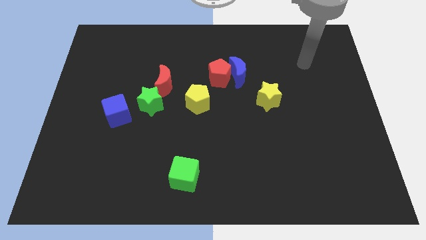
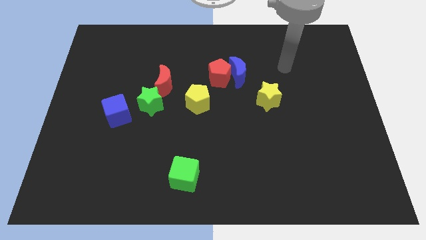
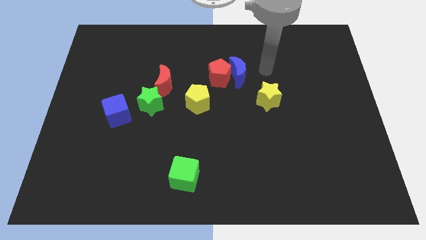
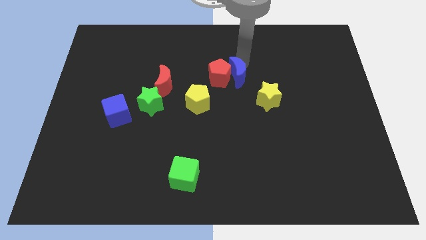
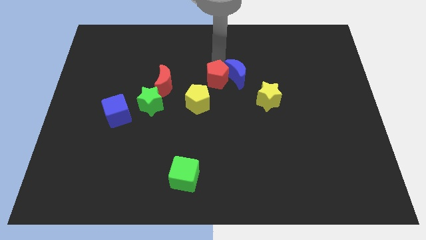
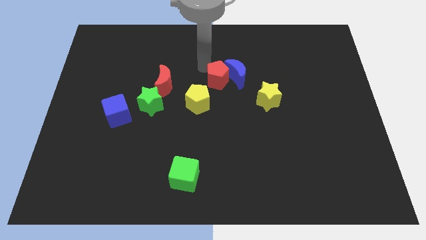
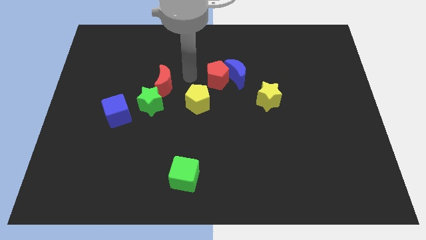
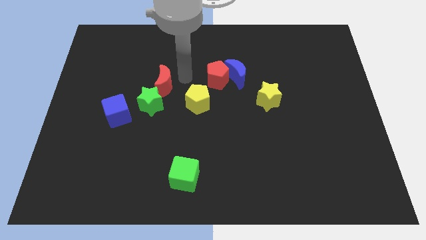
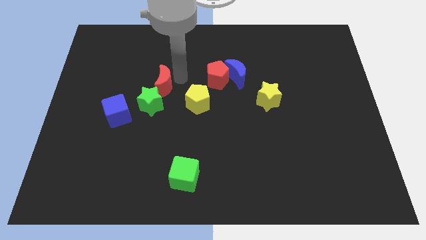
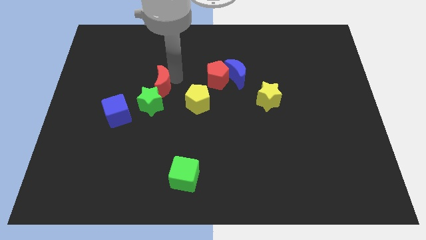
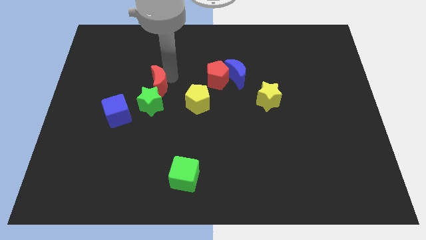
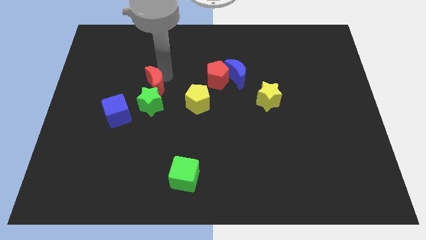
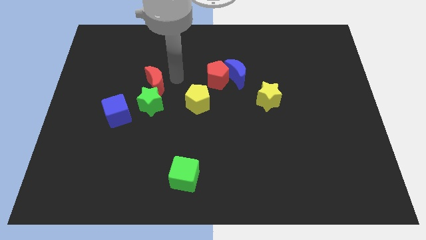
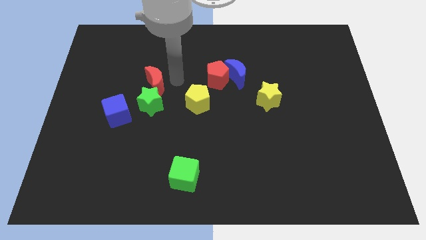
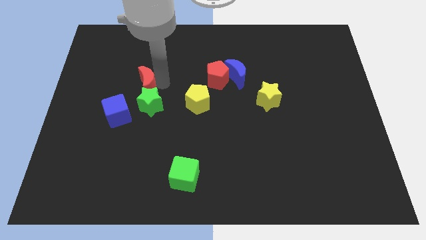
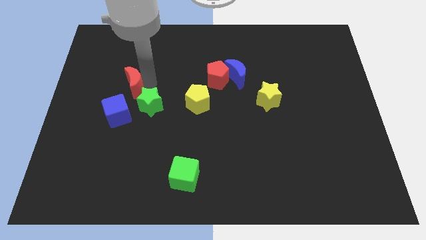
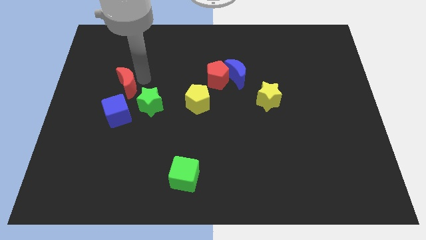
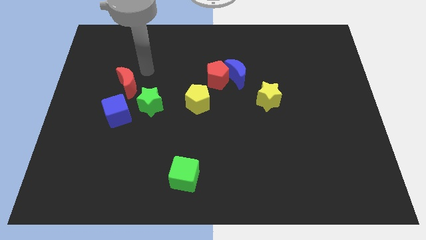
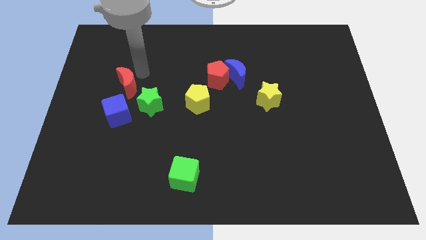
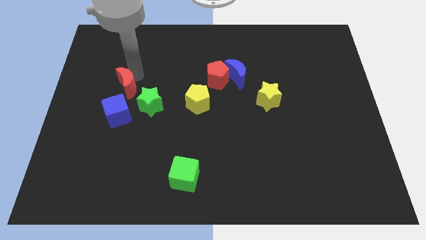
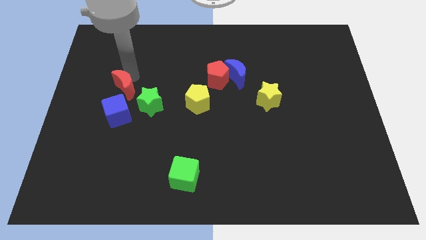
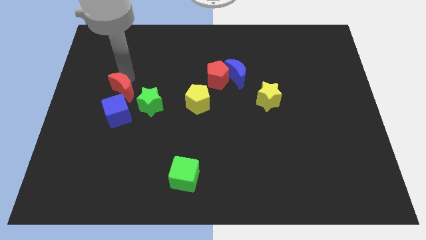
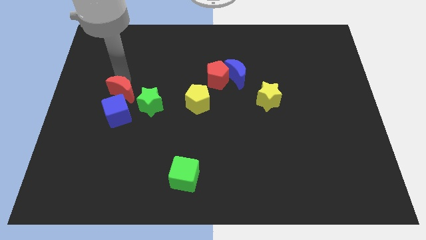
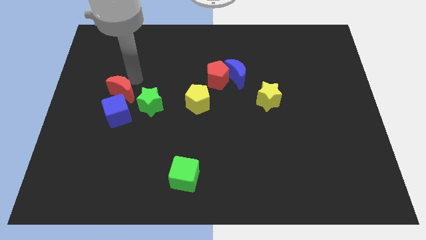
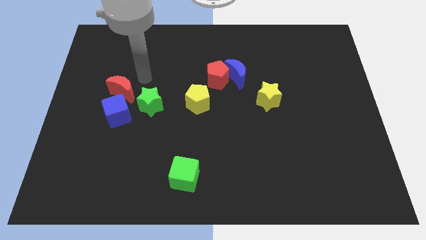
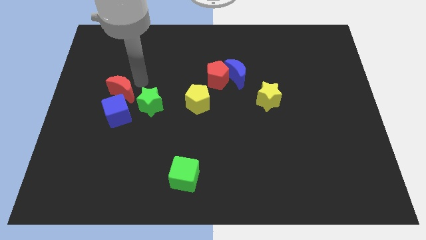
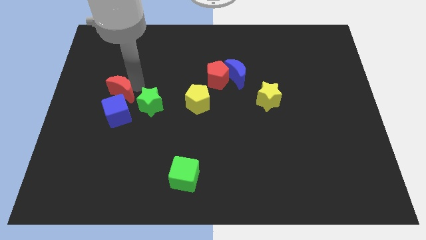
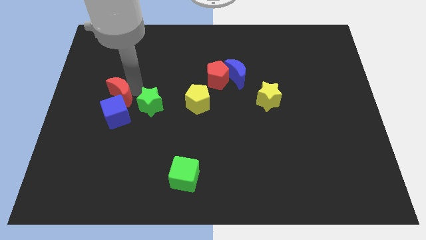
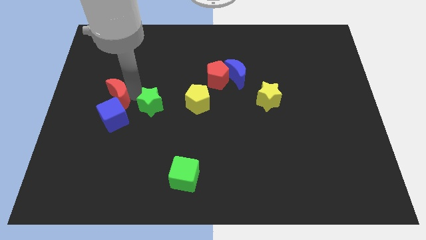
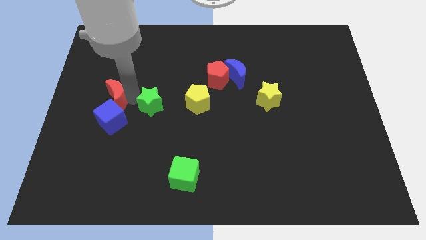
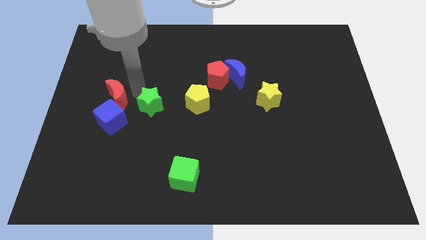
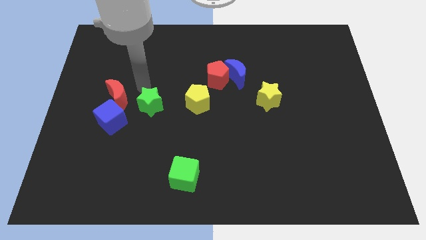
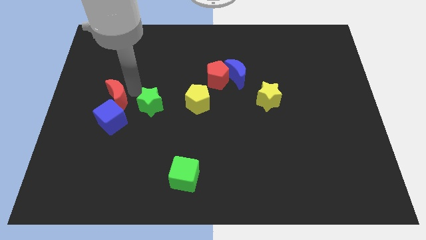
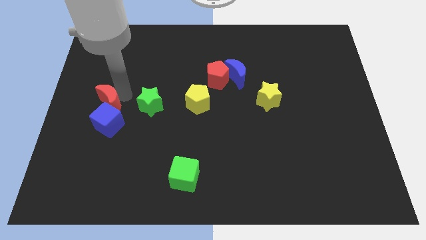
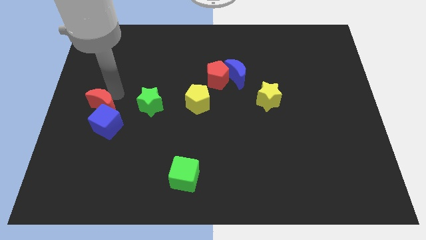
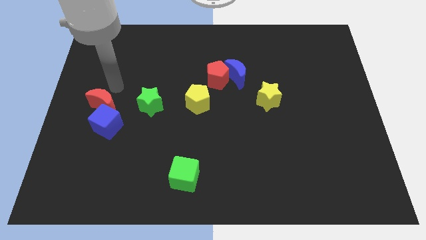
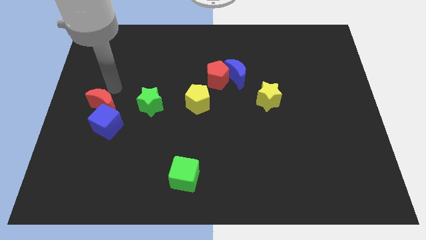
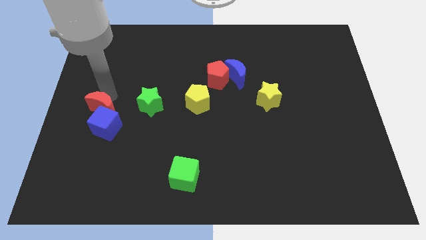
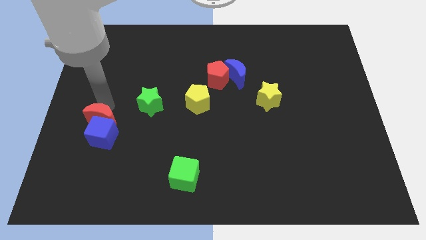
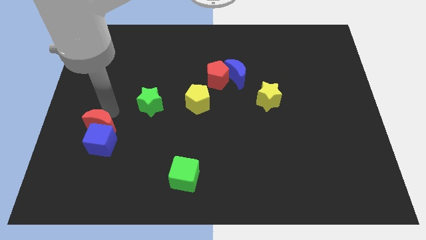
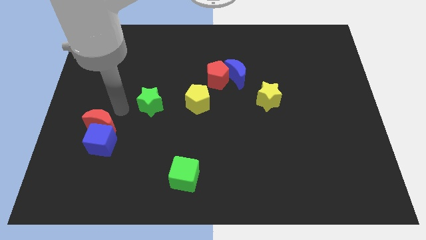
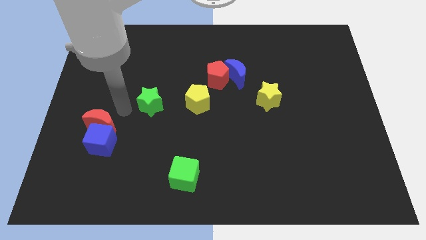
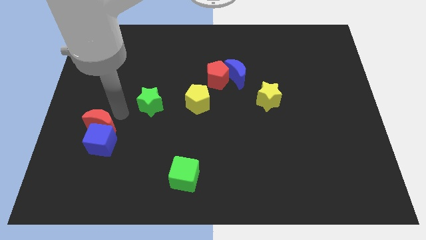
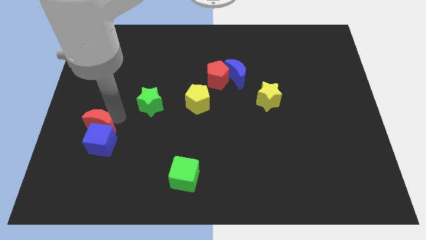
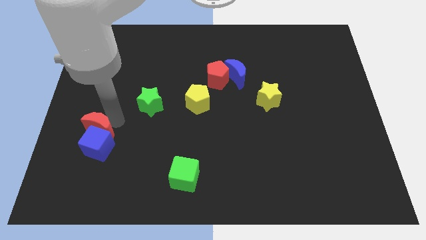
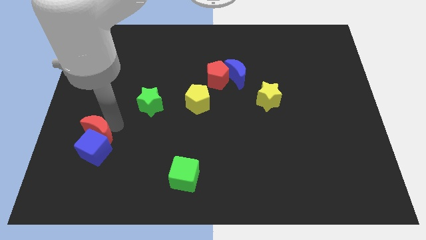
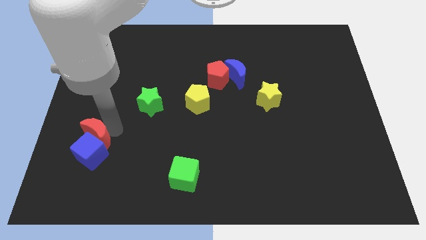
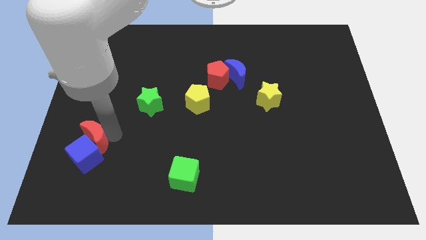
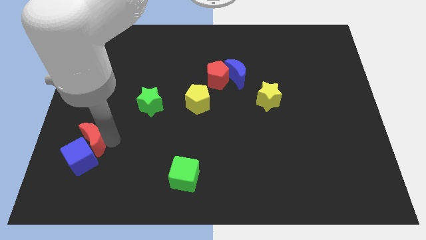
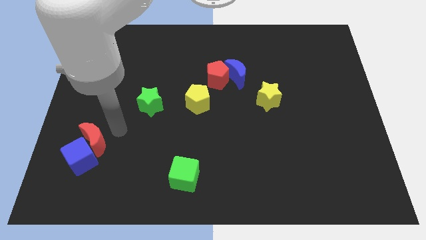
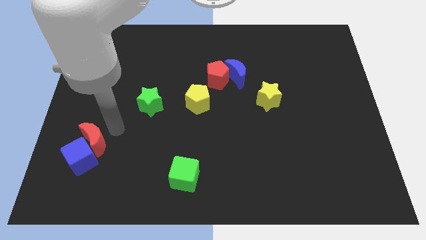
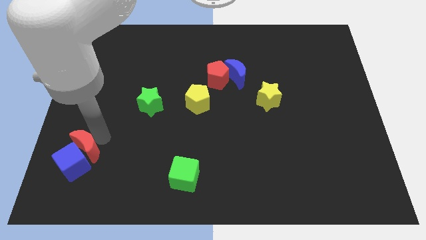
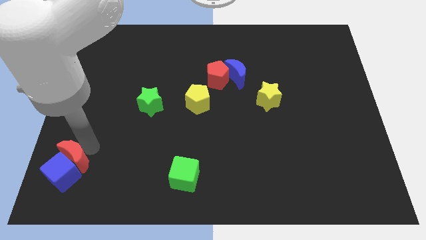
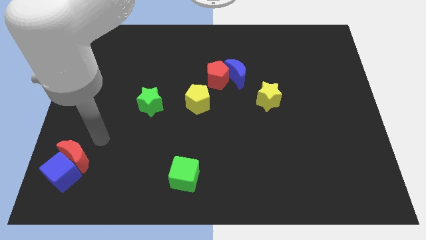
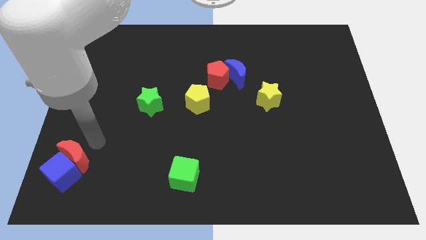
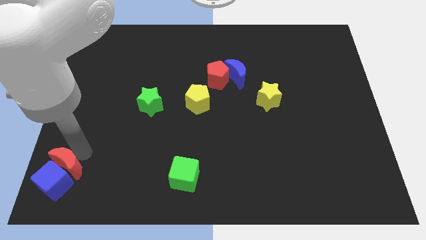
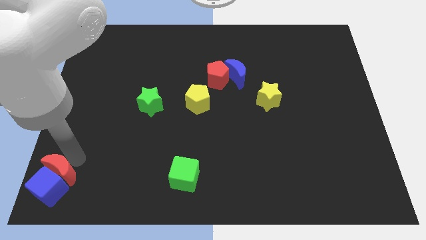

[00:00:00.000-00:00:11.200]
put the red moon to the bottom left
